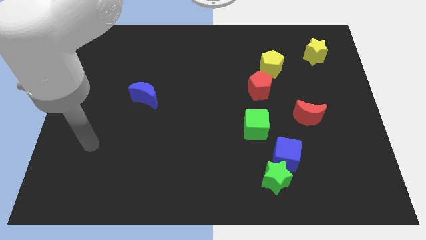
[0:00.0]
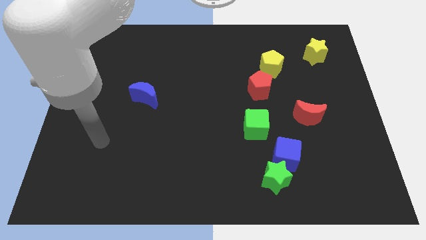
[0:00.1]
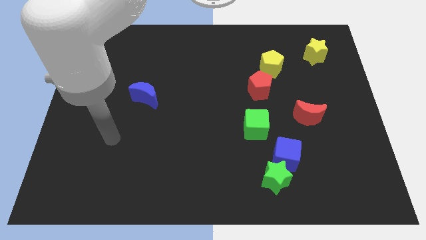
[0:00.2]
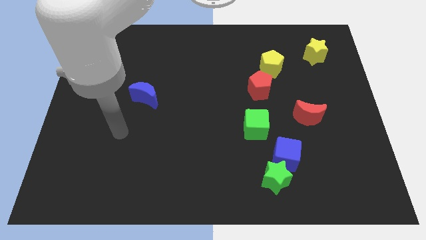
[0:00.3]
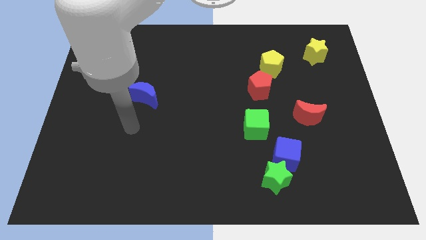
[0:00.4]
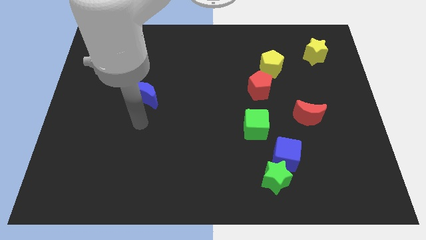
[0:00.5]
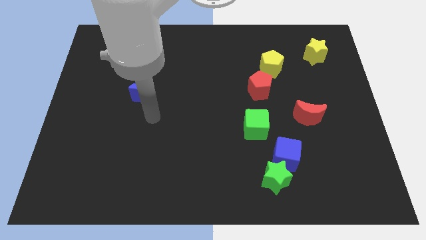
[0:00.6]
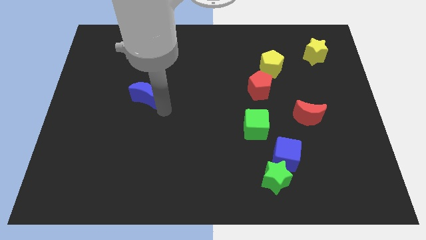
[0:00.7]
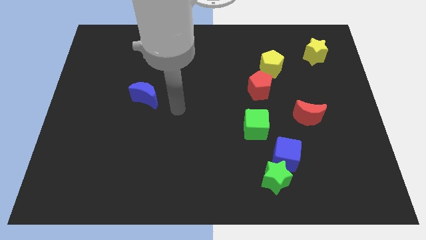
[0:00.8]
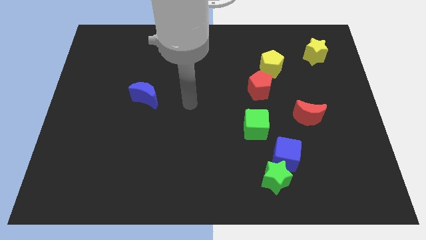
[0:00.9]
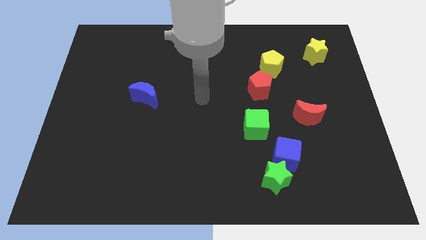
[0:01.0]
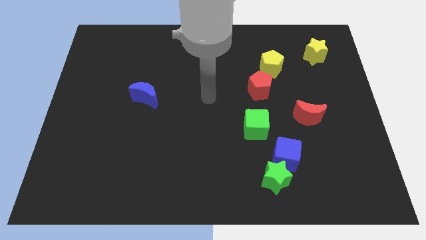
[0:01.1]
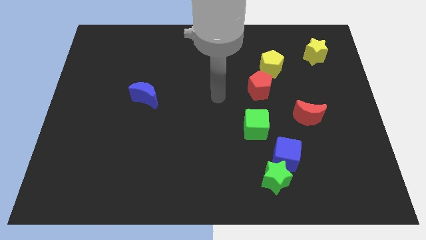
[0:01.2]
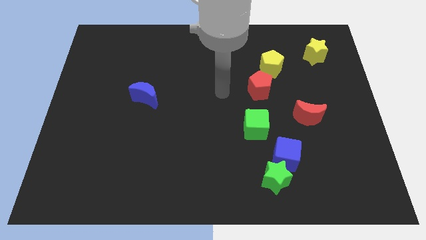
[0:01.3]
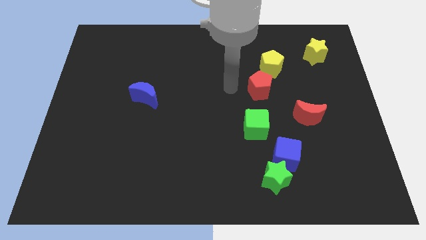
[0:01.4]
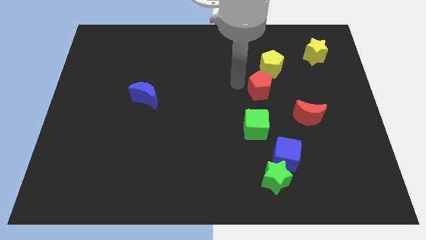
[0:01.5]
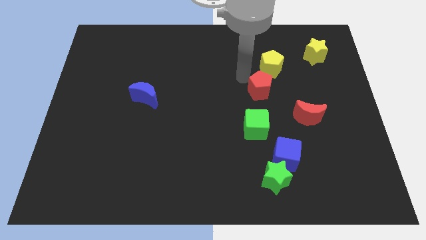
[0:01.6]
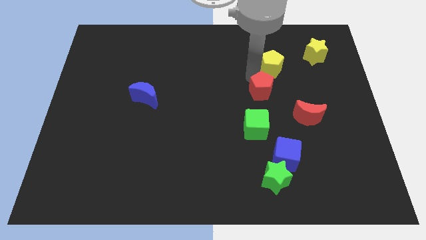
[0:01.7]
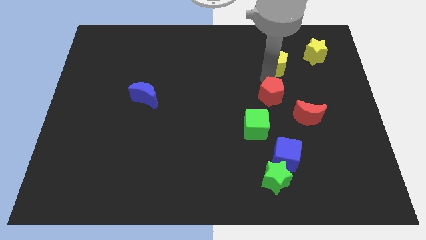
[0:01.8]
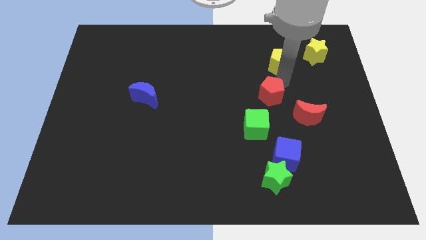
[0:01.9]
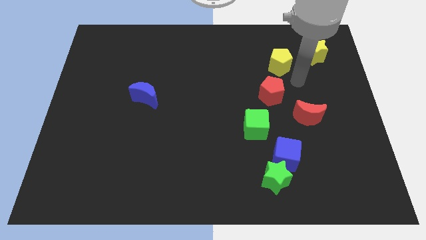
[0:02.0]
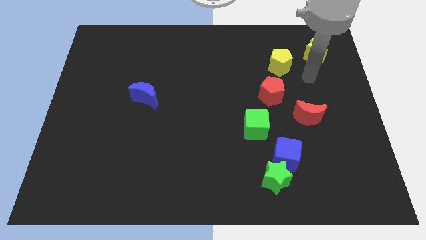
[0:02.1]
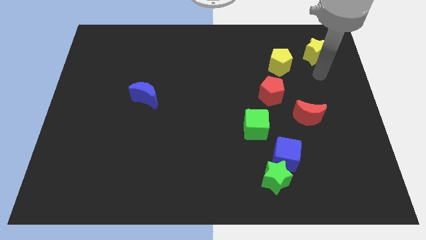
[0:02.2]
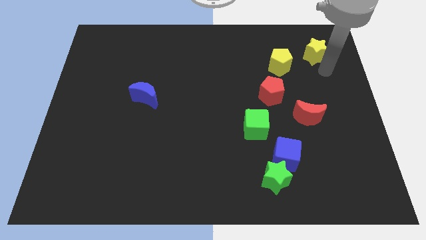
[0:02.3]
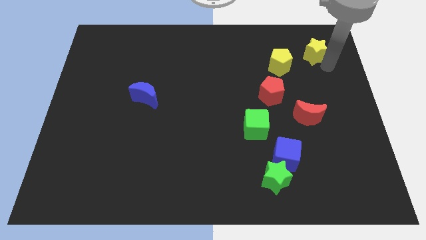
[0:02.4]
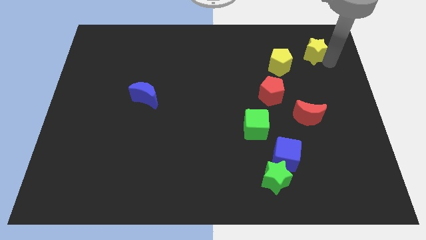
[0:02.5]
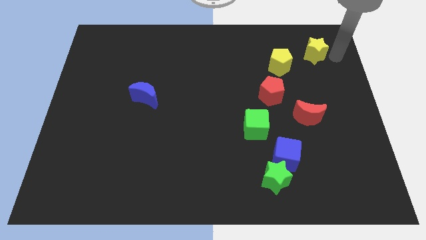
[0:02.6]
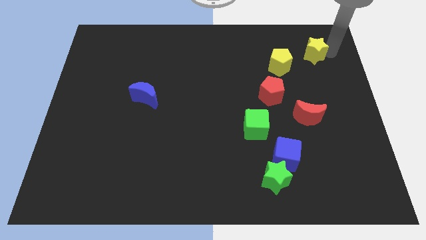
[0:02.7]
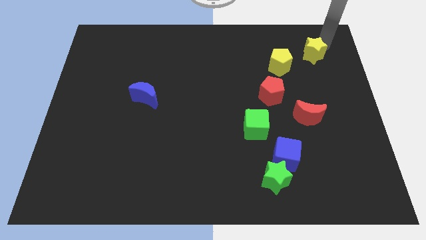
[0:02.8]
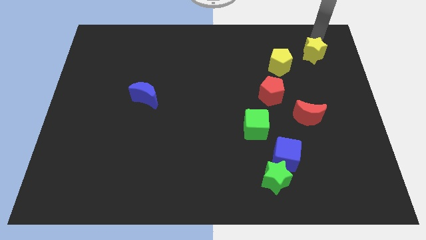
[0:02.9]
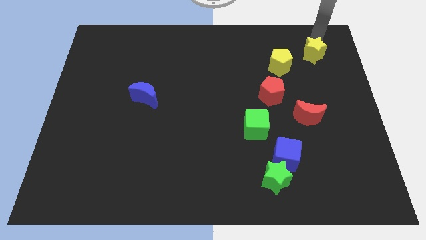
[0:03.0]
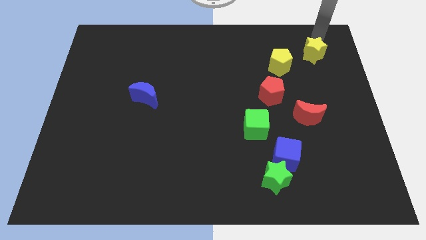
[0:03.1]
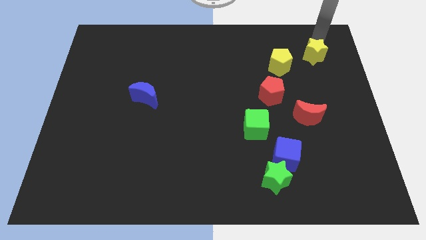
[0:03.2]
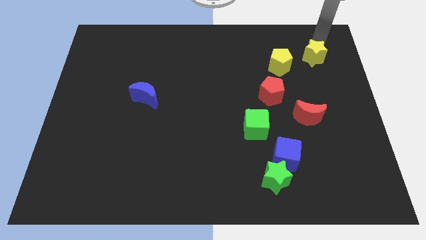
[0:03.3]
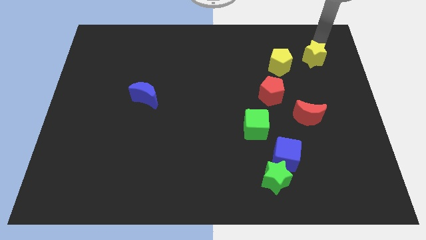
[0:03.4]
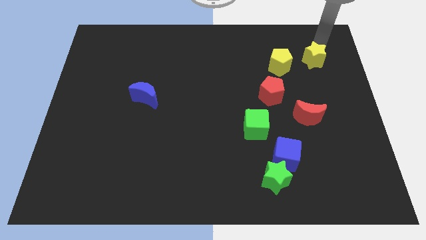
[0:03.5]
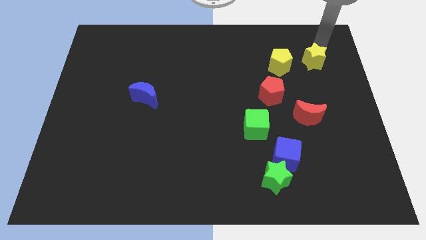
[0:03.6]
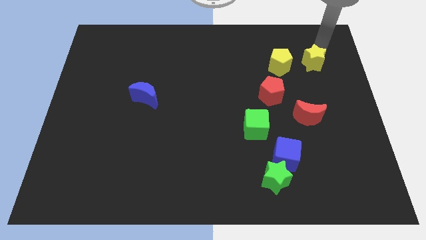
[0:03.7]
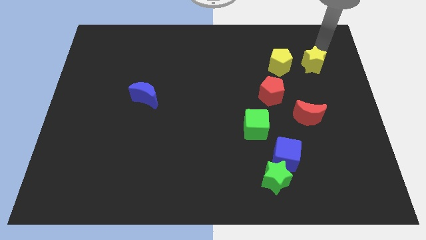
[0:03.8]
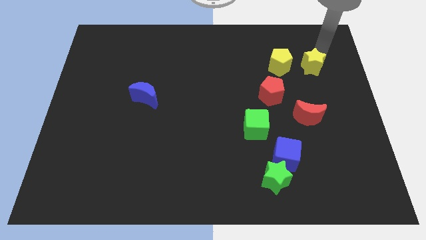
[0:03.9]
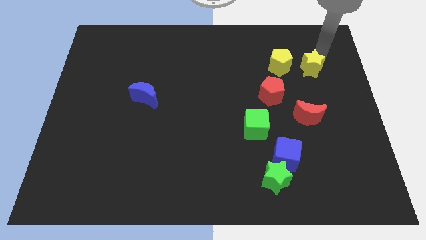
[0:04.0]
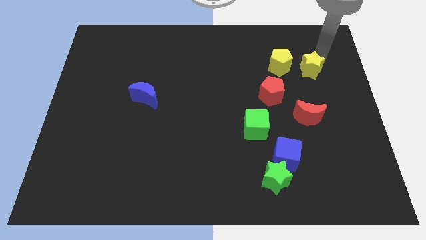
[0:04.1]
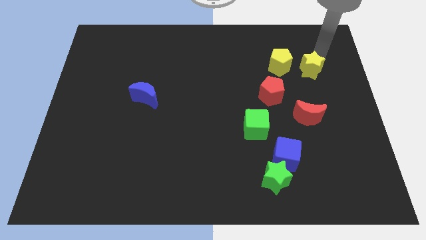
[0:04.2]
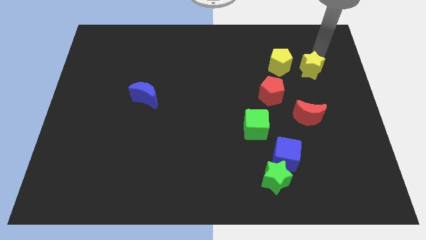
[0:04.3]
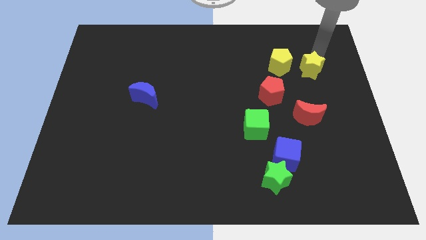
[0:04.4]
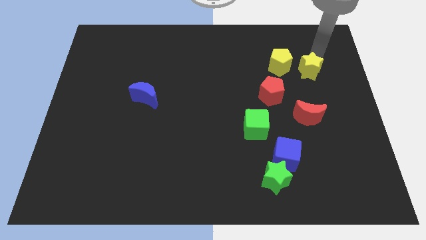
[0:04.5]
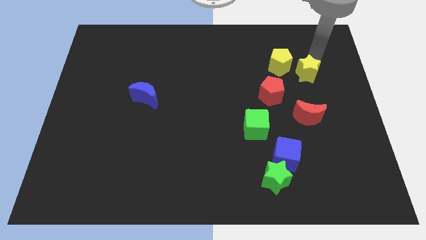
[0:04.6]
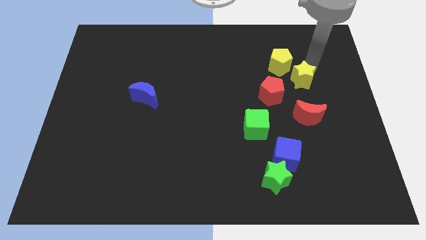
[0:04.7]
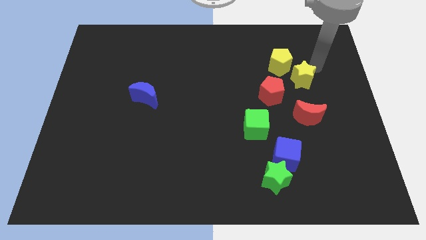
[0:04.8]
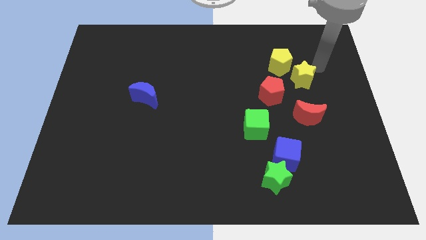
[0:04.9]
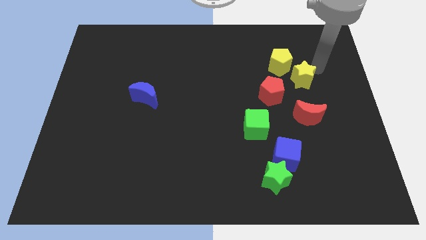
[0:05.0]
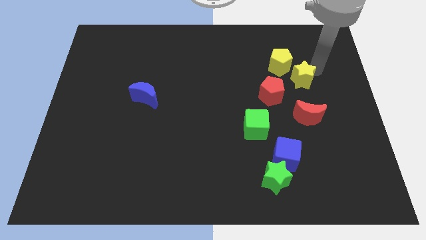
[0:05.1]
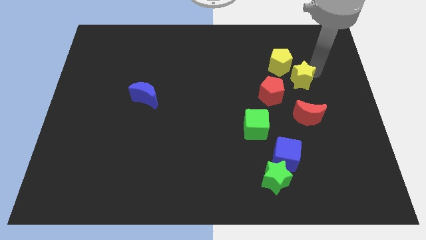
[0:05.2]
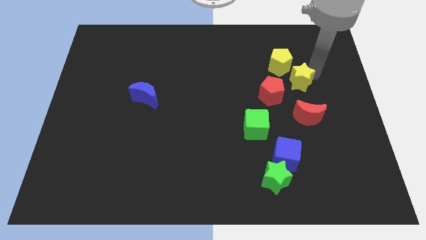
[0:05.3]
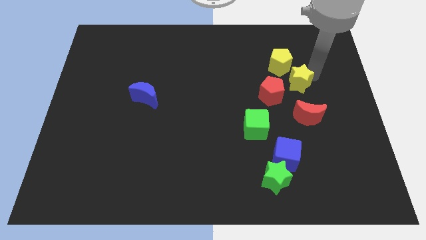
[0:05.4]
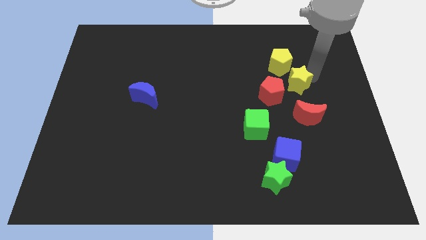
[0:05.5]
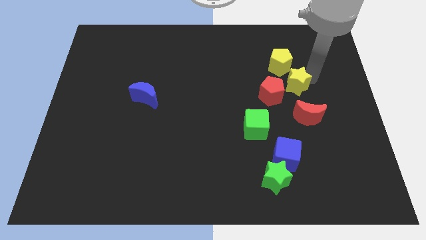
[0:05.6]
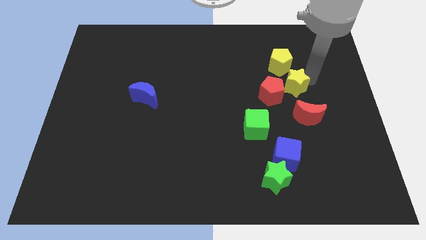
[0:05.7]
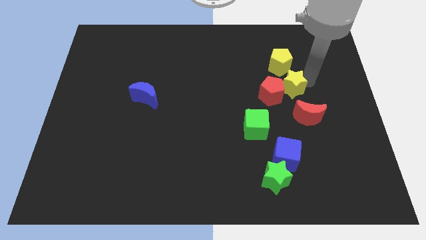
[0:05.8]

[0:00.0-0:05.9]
slide the yellow star close to the red pentagon

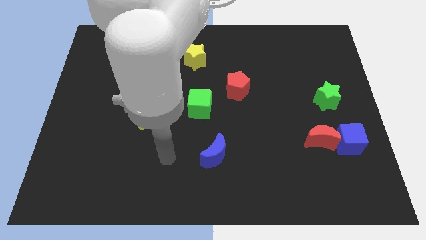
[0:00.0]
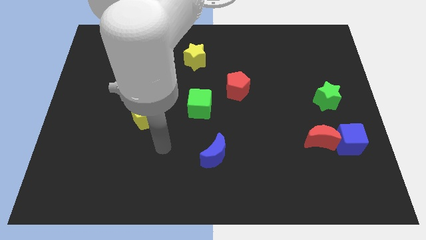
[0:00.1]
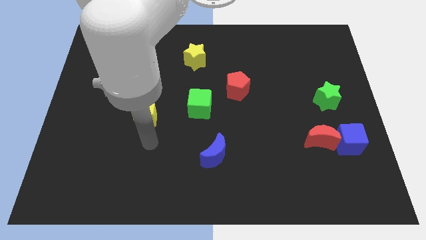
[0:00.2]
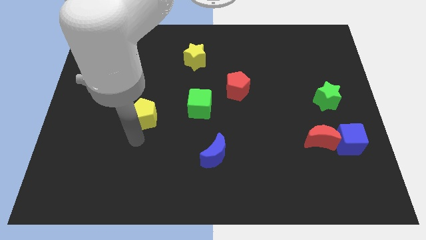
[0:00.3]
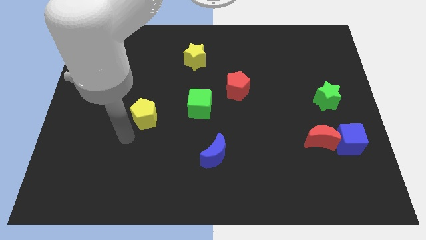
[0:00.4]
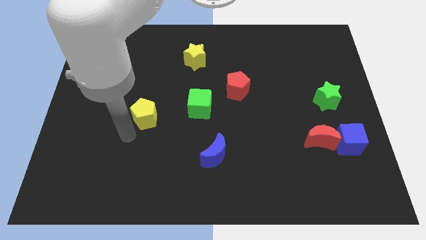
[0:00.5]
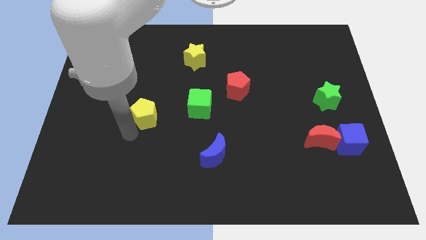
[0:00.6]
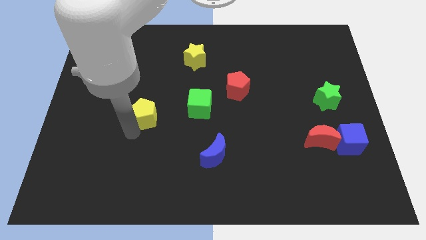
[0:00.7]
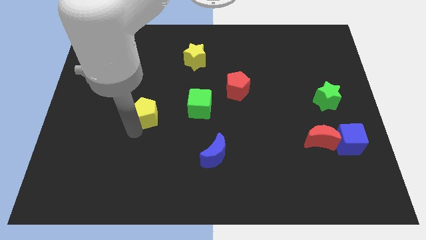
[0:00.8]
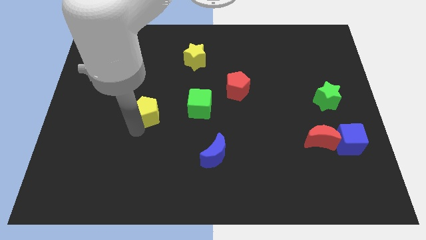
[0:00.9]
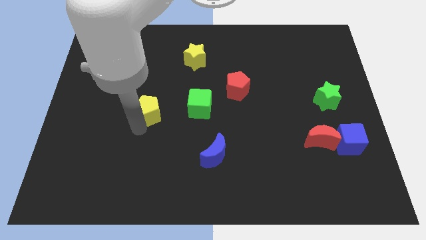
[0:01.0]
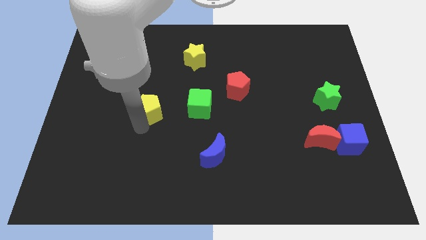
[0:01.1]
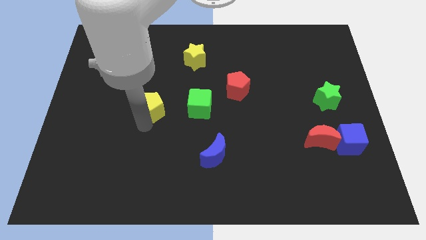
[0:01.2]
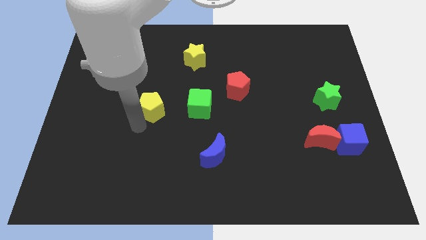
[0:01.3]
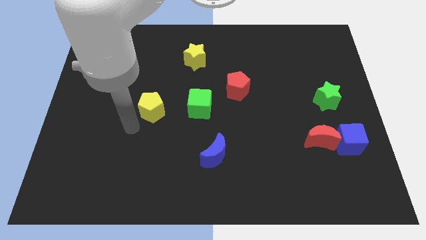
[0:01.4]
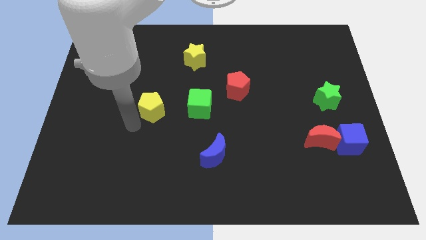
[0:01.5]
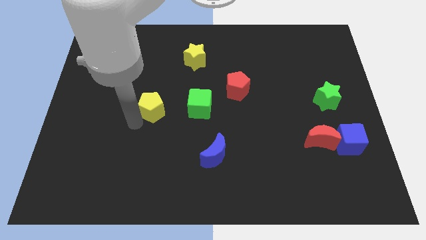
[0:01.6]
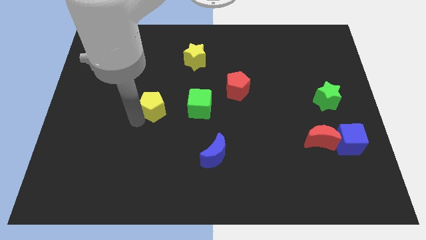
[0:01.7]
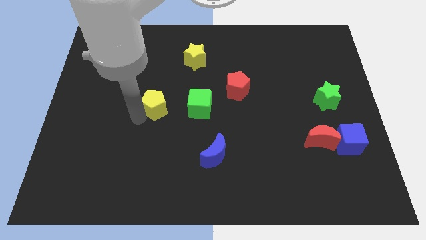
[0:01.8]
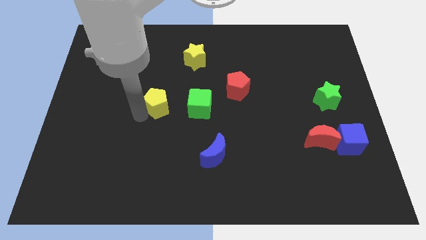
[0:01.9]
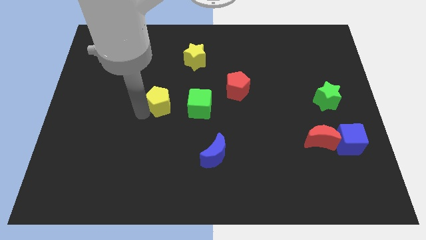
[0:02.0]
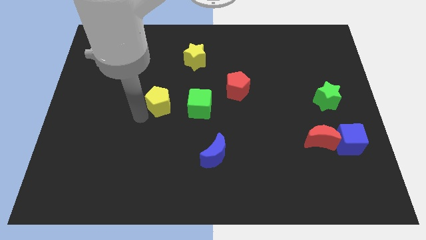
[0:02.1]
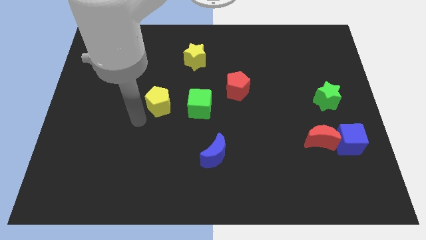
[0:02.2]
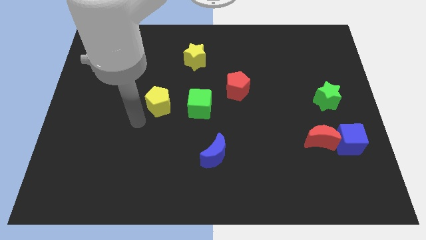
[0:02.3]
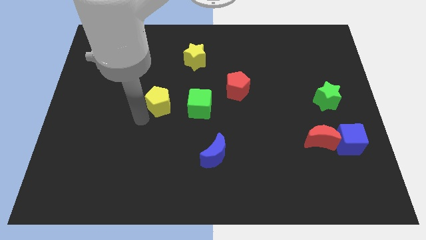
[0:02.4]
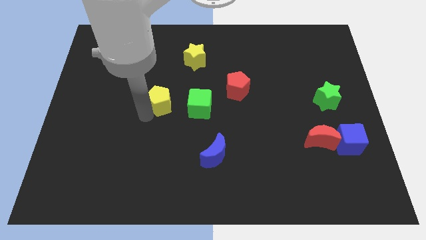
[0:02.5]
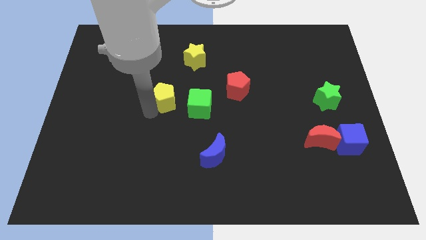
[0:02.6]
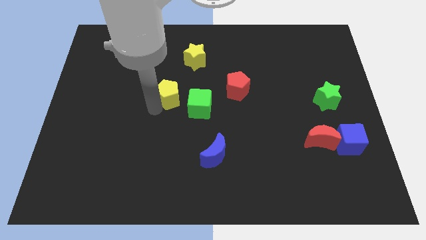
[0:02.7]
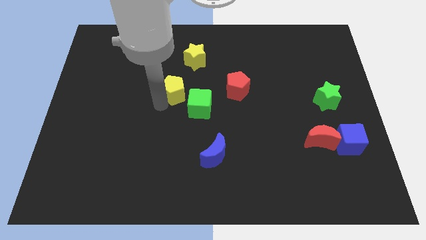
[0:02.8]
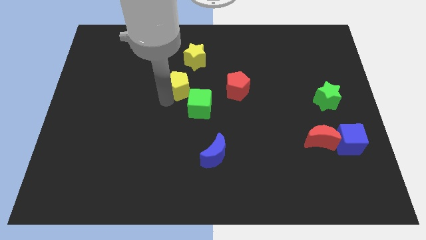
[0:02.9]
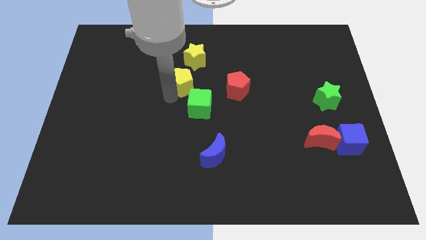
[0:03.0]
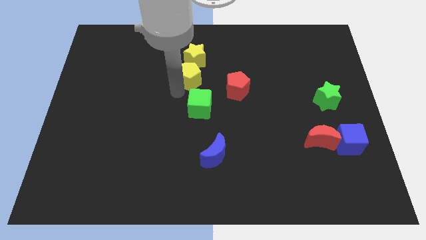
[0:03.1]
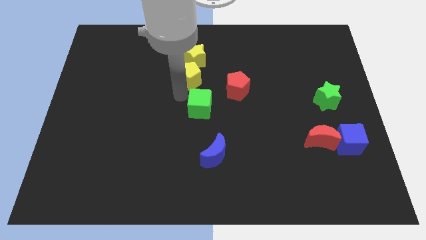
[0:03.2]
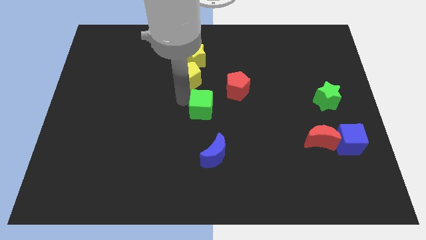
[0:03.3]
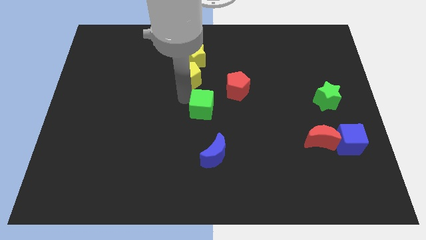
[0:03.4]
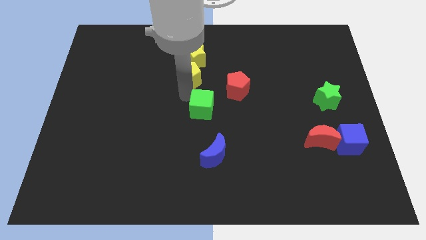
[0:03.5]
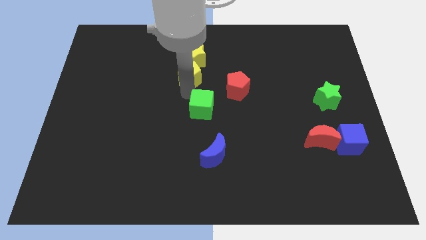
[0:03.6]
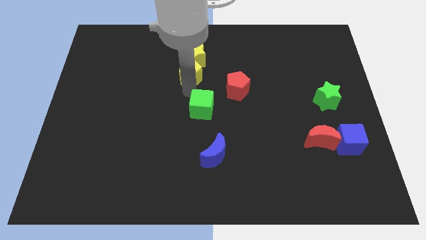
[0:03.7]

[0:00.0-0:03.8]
slide the yellow pentagon towards the yellow star
